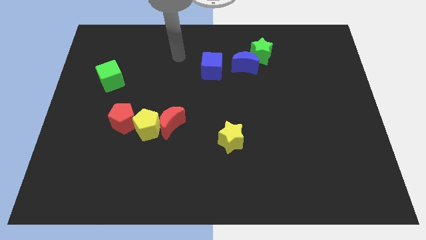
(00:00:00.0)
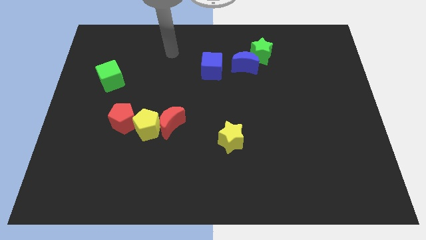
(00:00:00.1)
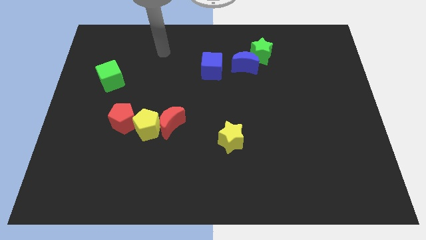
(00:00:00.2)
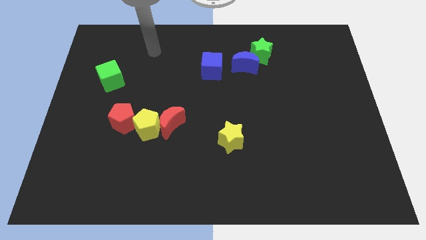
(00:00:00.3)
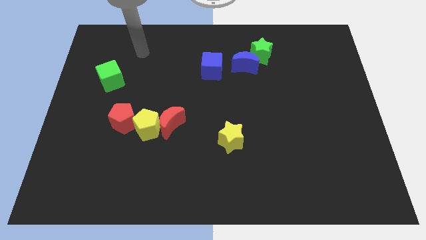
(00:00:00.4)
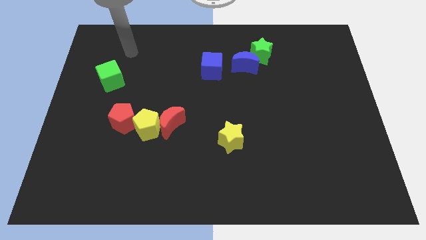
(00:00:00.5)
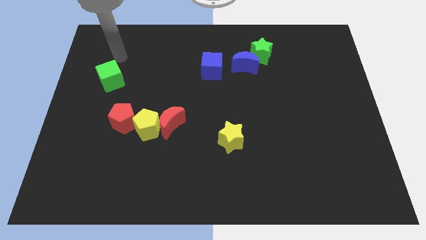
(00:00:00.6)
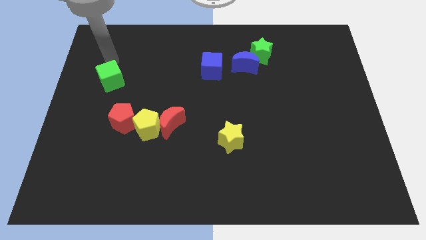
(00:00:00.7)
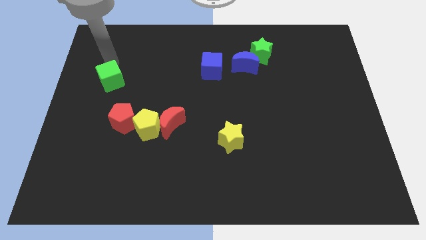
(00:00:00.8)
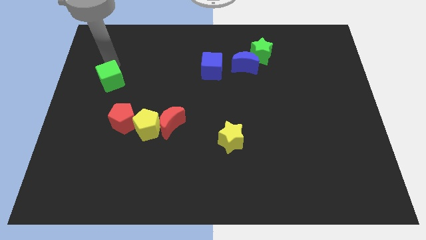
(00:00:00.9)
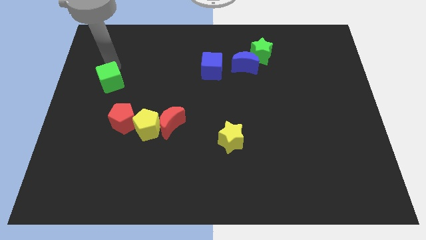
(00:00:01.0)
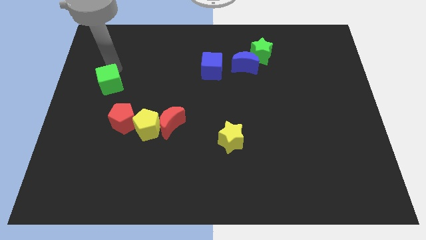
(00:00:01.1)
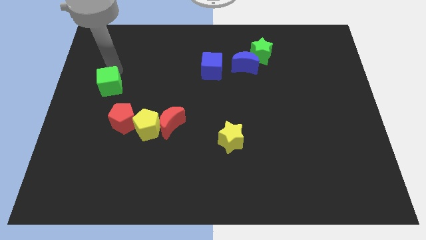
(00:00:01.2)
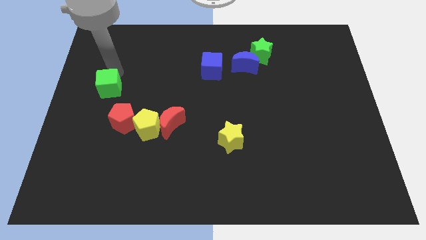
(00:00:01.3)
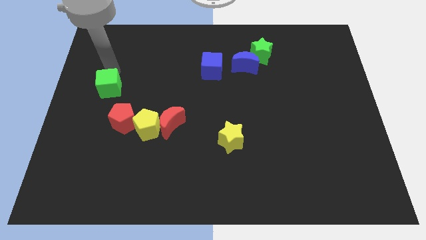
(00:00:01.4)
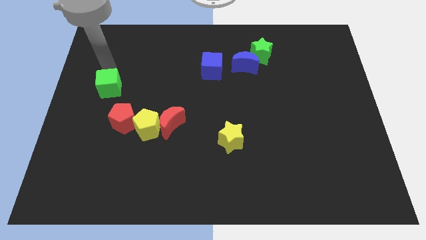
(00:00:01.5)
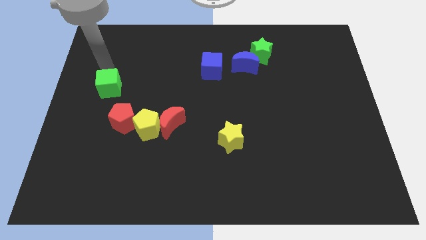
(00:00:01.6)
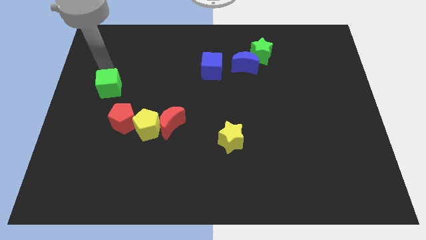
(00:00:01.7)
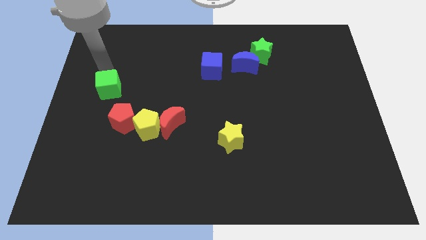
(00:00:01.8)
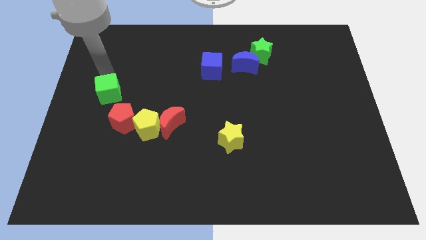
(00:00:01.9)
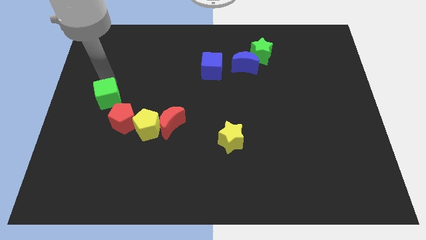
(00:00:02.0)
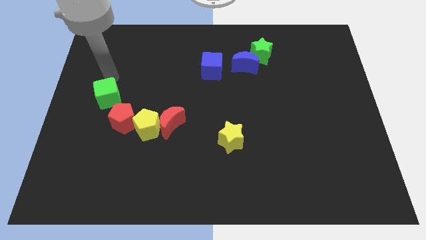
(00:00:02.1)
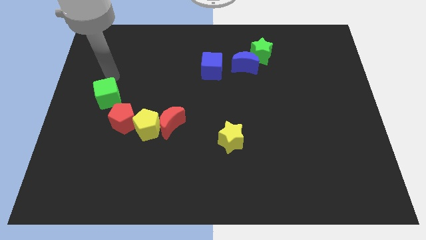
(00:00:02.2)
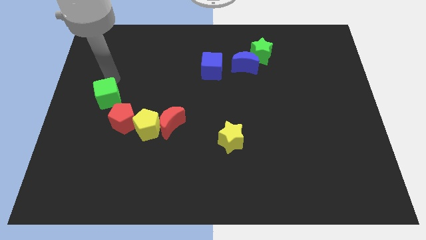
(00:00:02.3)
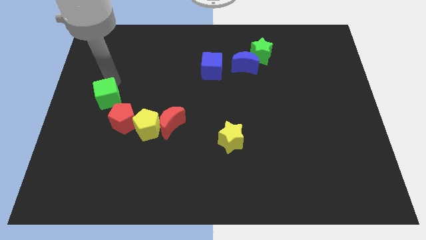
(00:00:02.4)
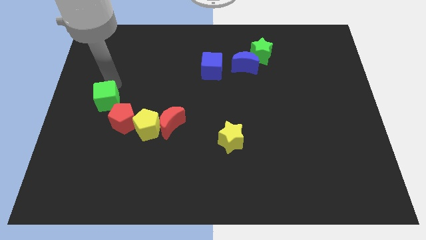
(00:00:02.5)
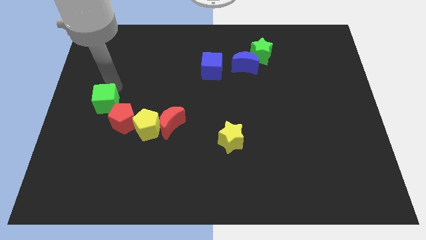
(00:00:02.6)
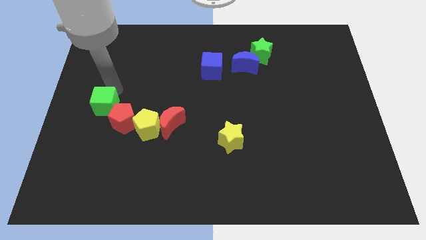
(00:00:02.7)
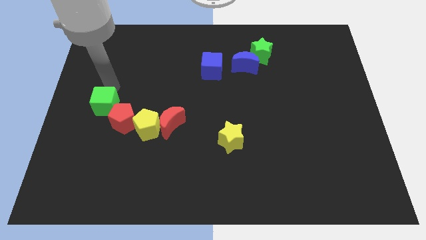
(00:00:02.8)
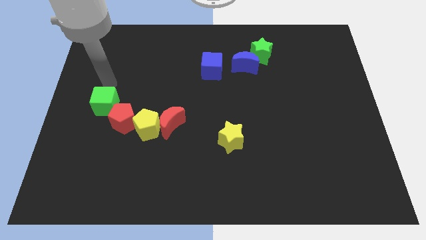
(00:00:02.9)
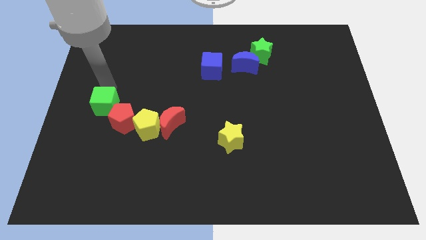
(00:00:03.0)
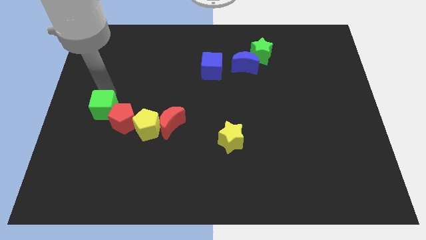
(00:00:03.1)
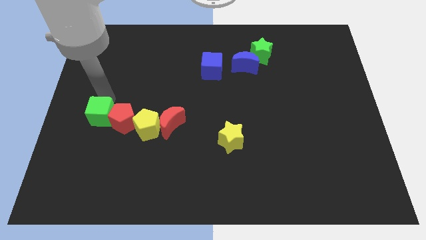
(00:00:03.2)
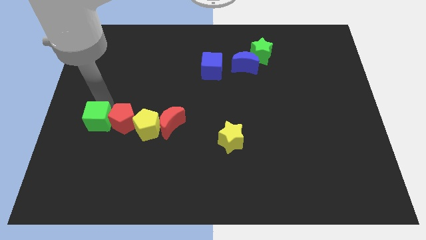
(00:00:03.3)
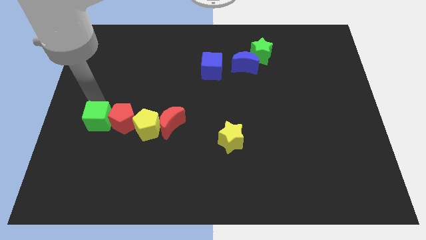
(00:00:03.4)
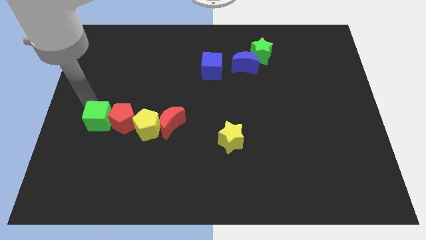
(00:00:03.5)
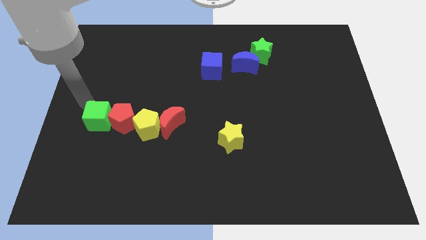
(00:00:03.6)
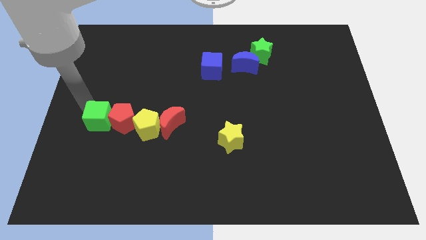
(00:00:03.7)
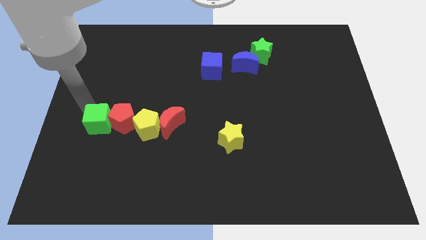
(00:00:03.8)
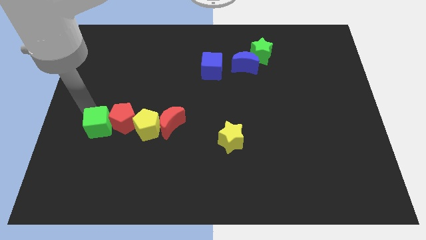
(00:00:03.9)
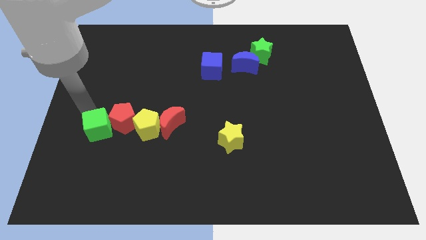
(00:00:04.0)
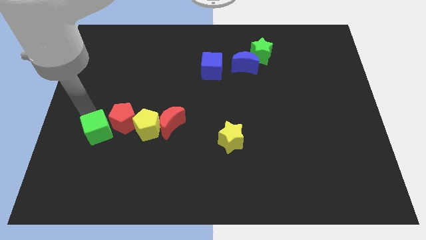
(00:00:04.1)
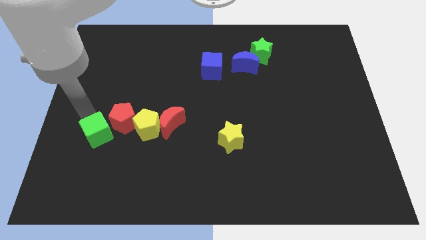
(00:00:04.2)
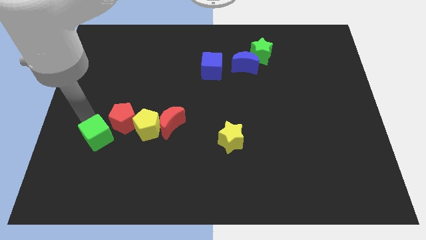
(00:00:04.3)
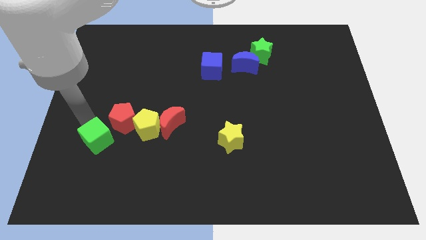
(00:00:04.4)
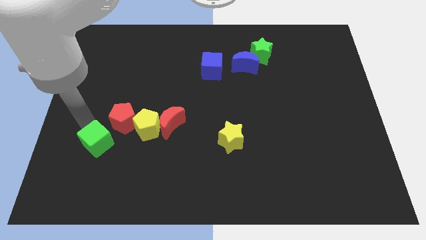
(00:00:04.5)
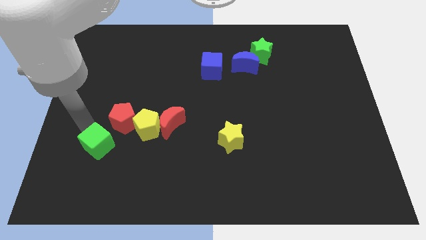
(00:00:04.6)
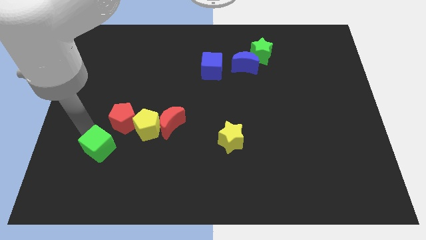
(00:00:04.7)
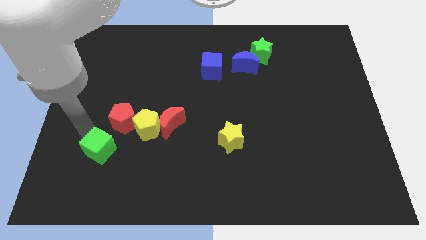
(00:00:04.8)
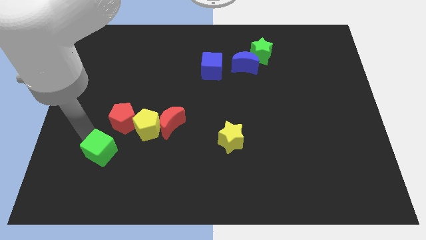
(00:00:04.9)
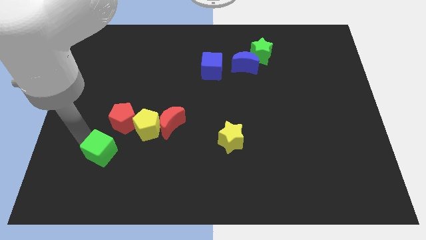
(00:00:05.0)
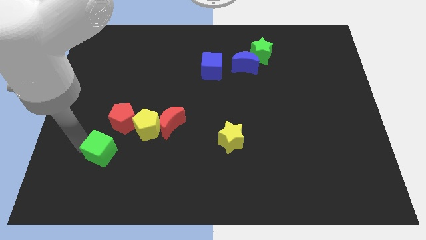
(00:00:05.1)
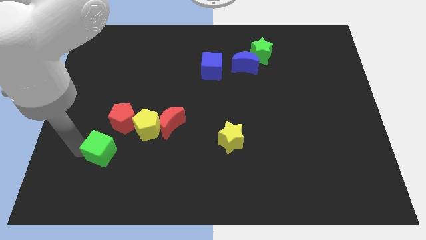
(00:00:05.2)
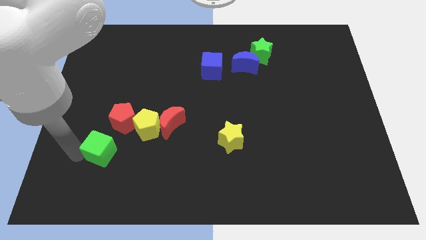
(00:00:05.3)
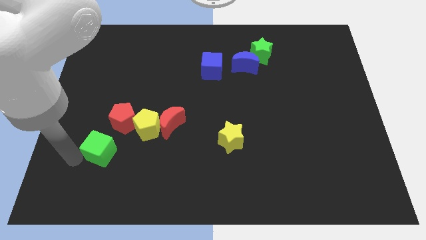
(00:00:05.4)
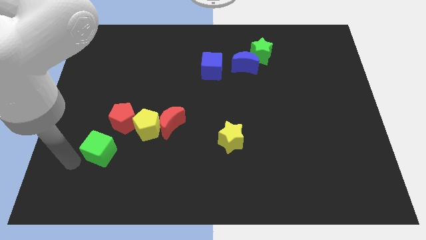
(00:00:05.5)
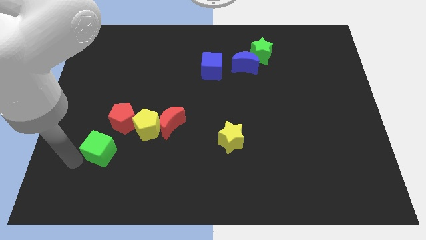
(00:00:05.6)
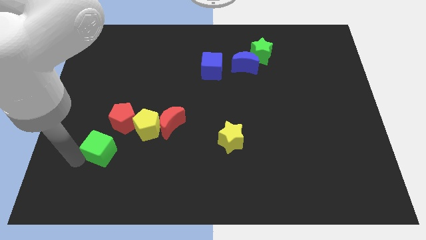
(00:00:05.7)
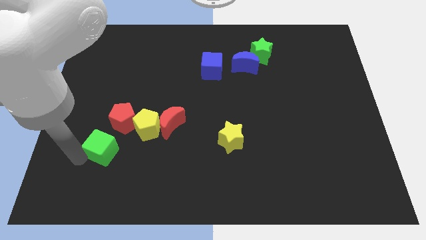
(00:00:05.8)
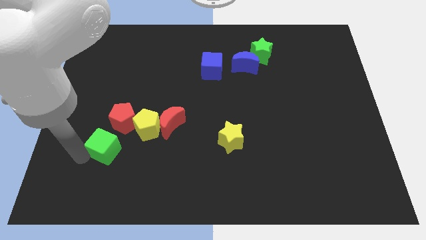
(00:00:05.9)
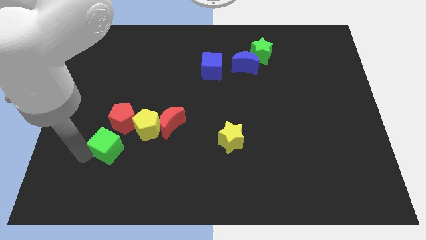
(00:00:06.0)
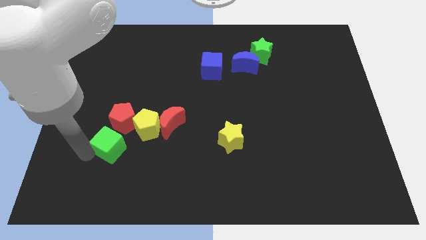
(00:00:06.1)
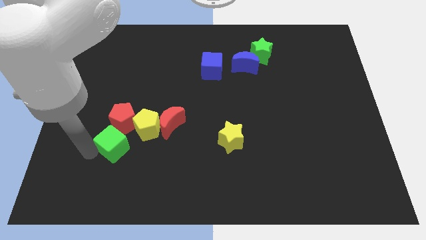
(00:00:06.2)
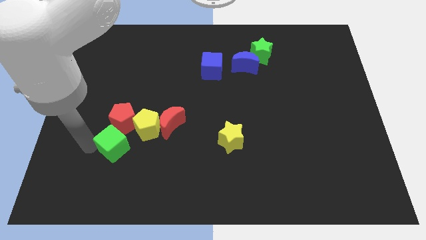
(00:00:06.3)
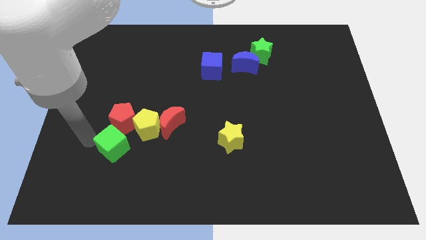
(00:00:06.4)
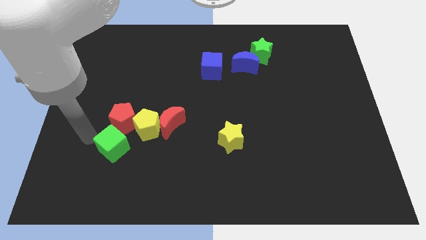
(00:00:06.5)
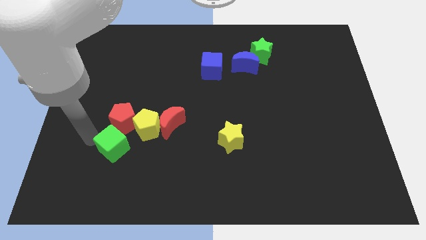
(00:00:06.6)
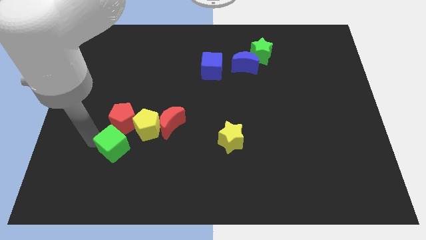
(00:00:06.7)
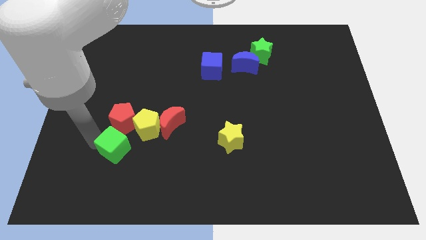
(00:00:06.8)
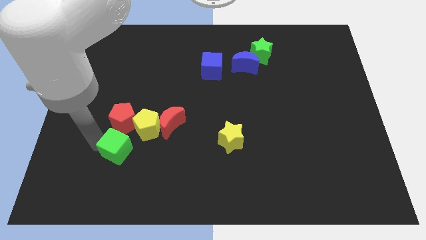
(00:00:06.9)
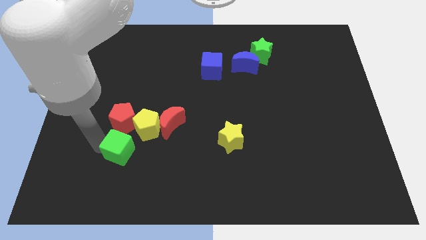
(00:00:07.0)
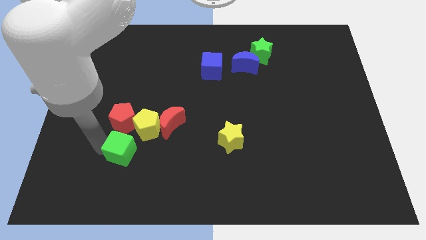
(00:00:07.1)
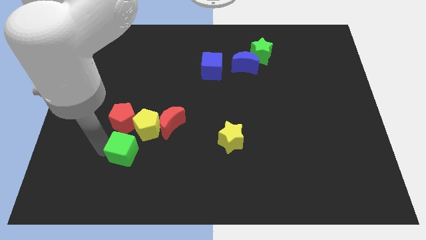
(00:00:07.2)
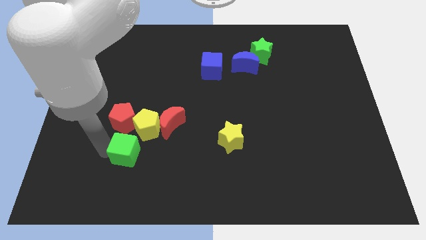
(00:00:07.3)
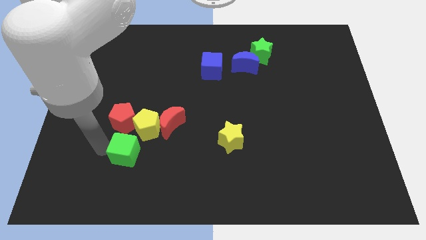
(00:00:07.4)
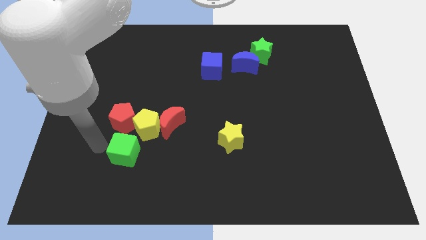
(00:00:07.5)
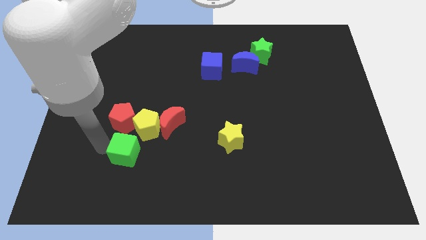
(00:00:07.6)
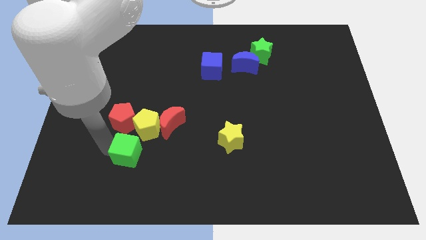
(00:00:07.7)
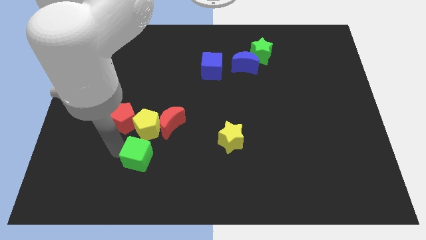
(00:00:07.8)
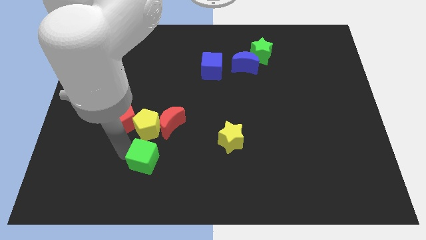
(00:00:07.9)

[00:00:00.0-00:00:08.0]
slide the green cube below the red moon
